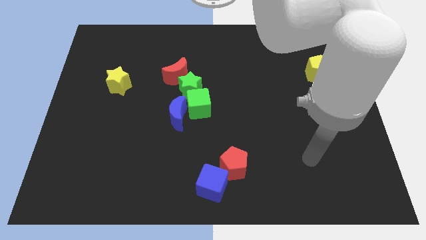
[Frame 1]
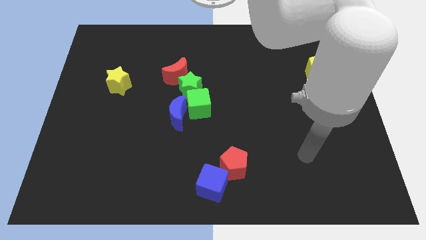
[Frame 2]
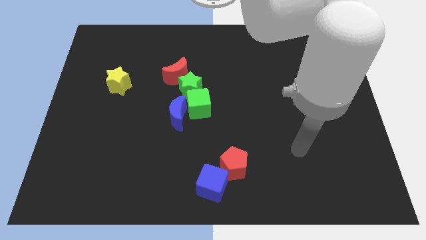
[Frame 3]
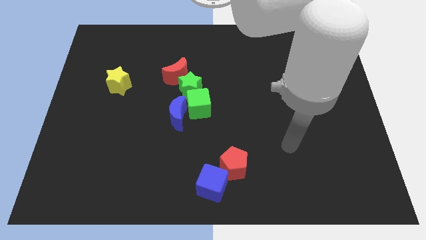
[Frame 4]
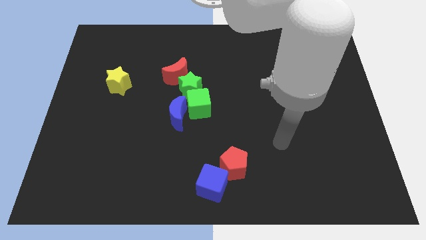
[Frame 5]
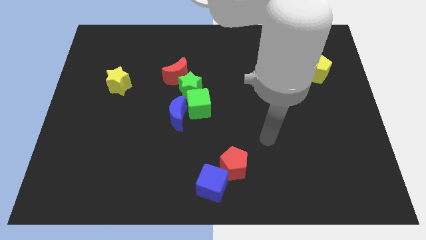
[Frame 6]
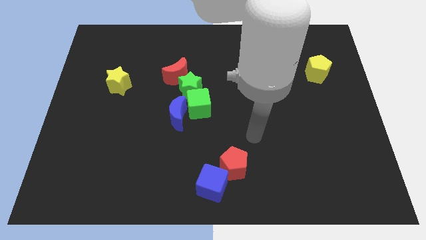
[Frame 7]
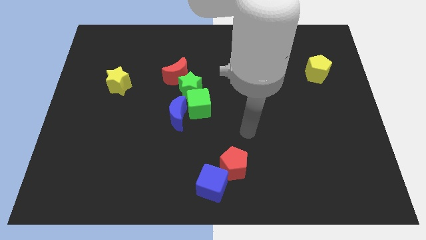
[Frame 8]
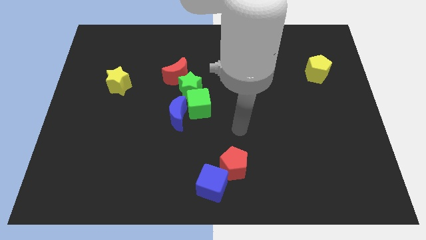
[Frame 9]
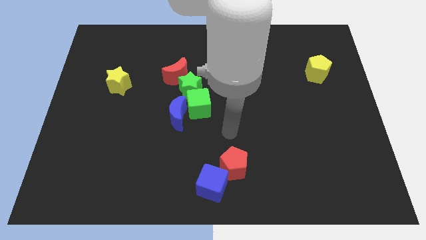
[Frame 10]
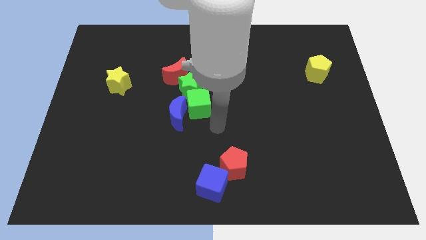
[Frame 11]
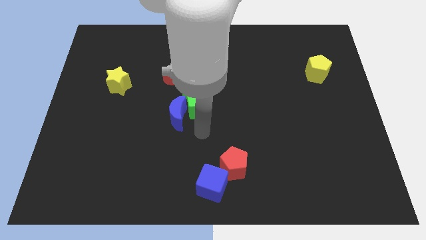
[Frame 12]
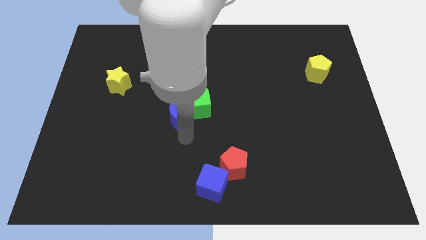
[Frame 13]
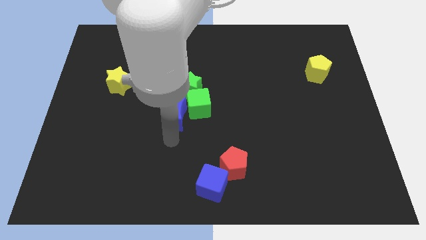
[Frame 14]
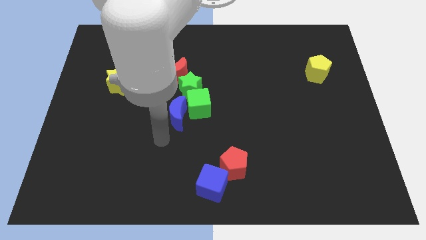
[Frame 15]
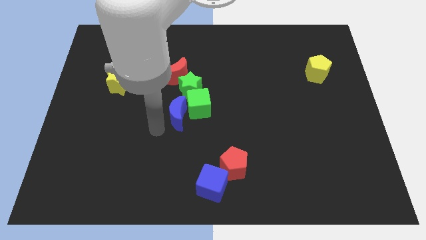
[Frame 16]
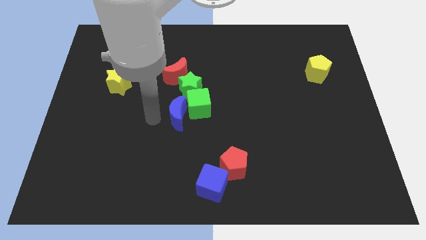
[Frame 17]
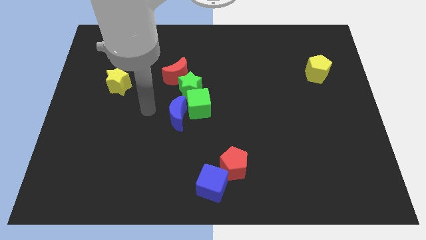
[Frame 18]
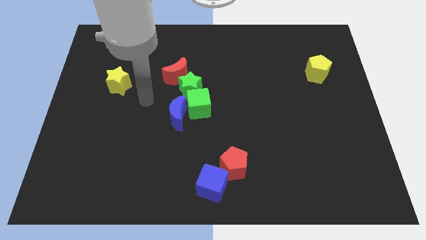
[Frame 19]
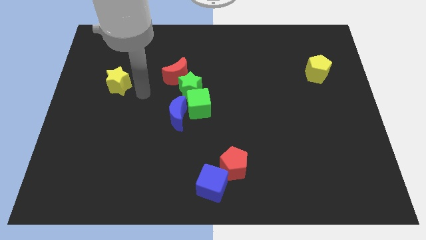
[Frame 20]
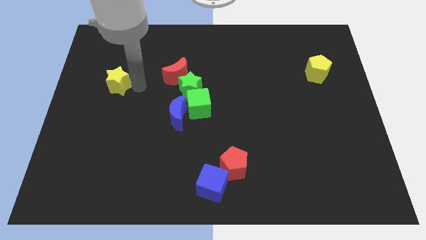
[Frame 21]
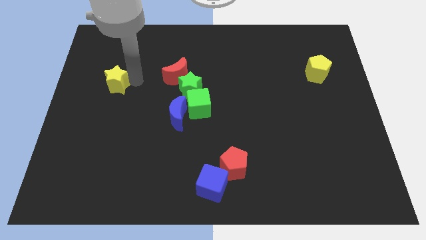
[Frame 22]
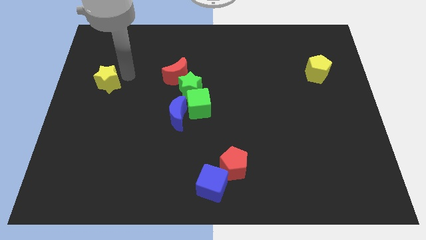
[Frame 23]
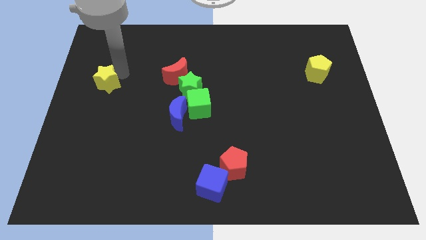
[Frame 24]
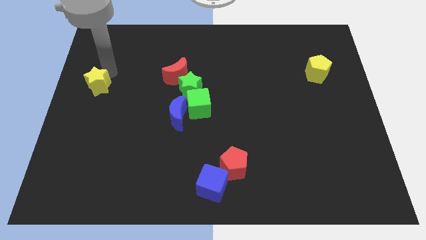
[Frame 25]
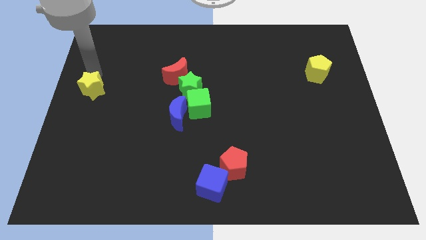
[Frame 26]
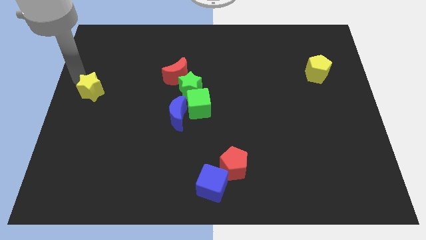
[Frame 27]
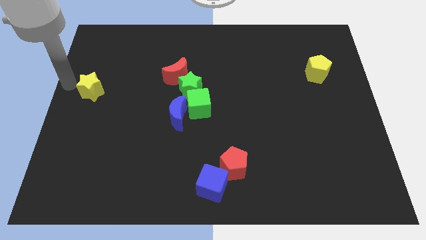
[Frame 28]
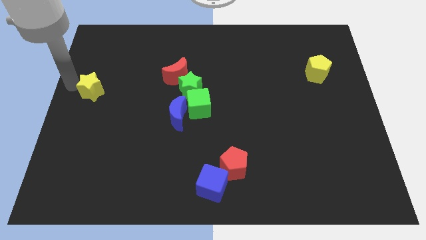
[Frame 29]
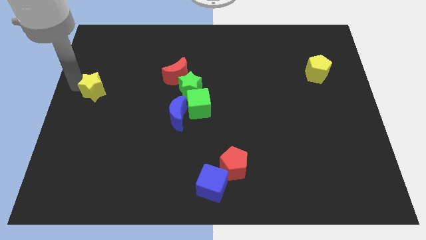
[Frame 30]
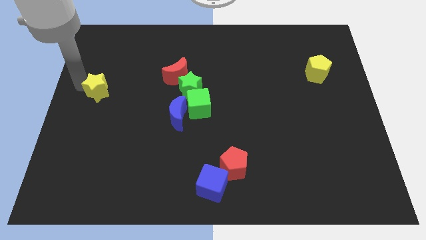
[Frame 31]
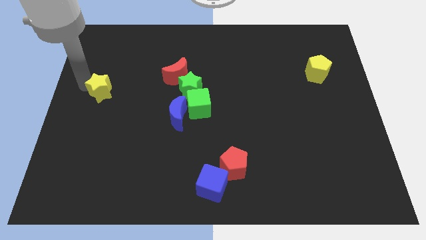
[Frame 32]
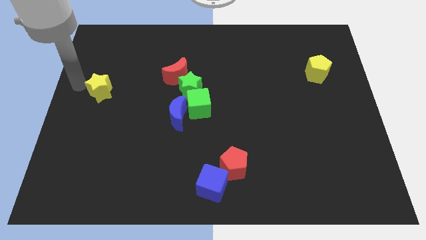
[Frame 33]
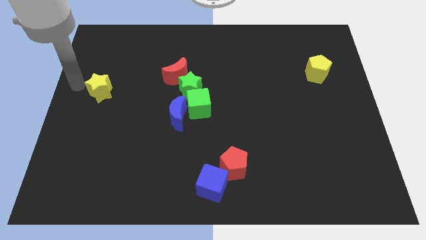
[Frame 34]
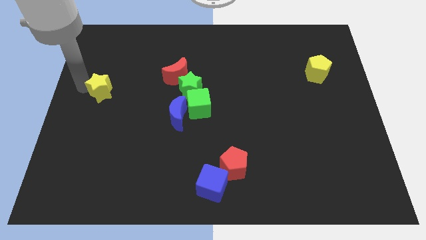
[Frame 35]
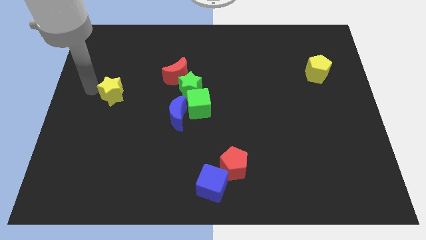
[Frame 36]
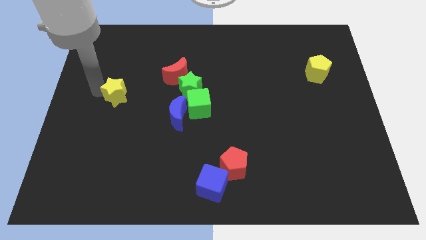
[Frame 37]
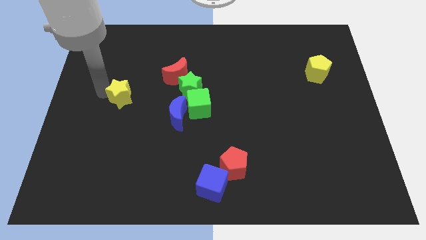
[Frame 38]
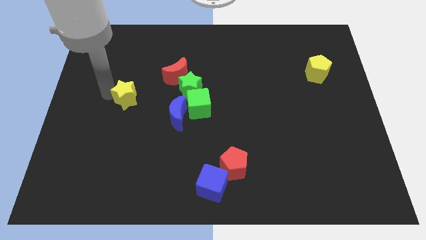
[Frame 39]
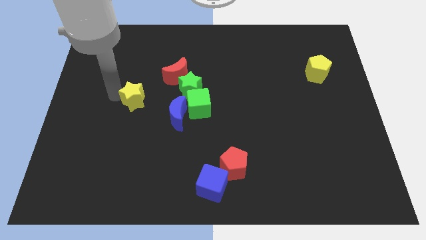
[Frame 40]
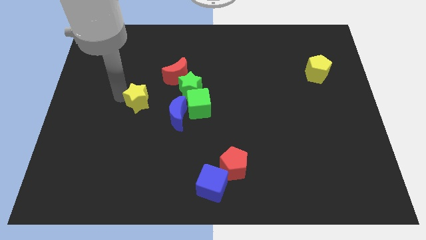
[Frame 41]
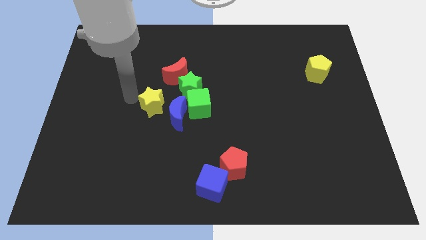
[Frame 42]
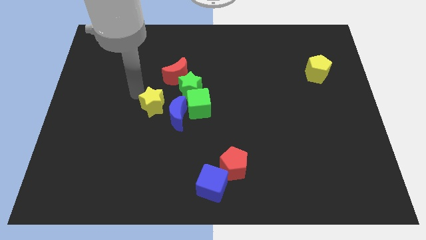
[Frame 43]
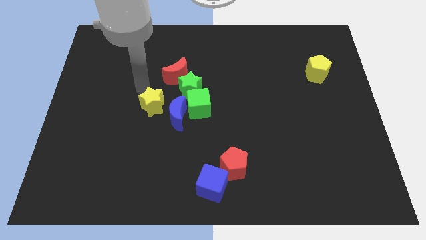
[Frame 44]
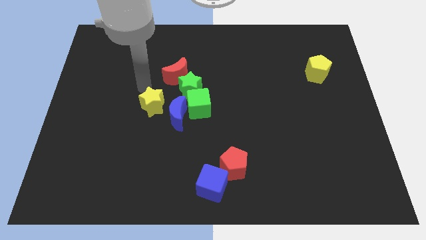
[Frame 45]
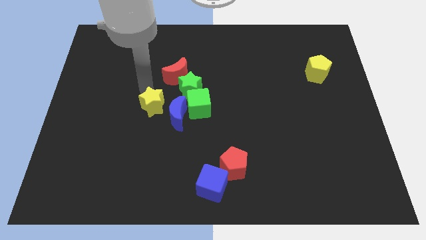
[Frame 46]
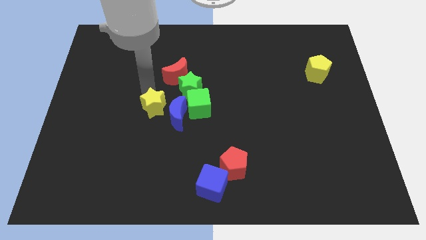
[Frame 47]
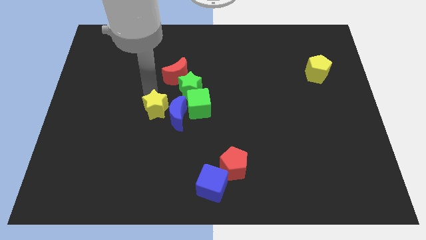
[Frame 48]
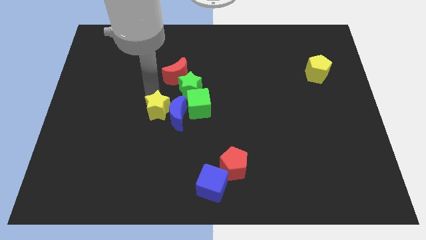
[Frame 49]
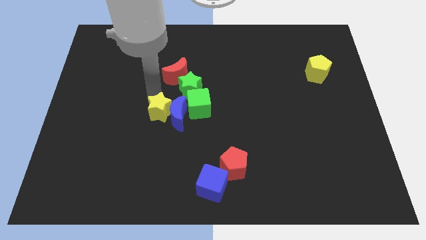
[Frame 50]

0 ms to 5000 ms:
push the yellow star to the middle

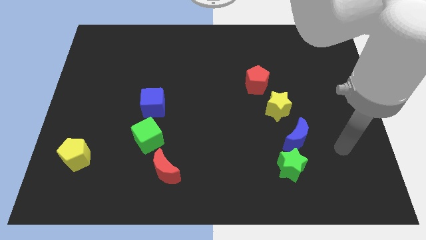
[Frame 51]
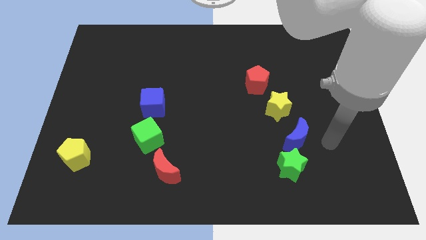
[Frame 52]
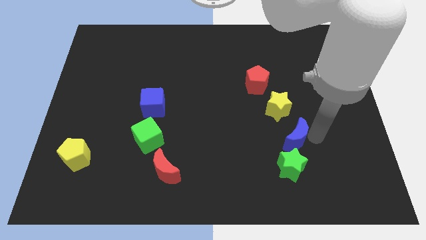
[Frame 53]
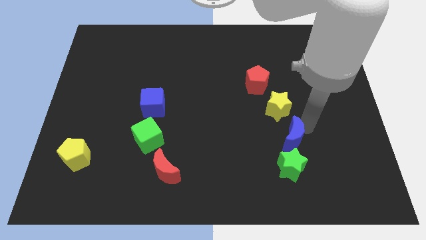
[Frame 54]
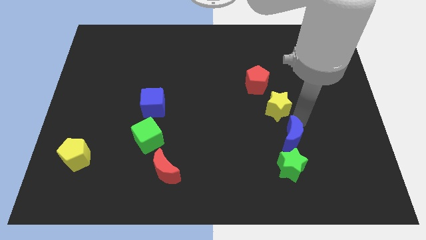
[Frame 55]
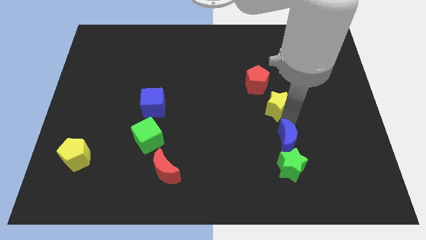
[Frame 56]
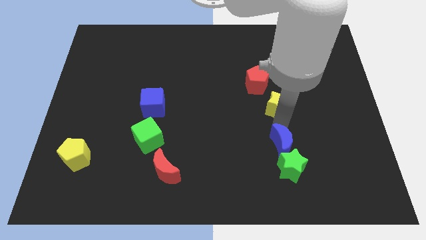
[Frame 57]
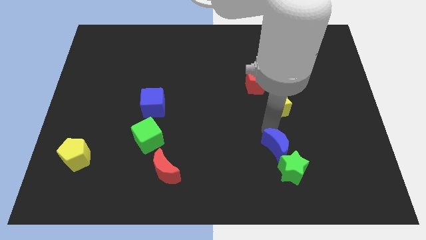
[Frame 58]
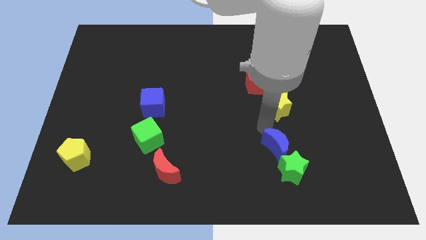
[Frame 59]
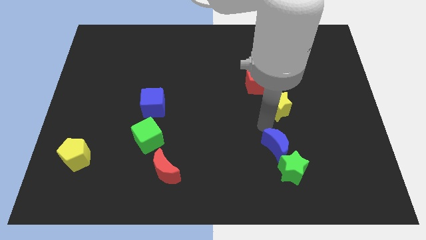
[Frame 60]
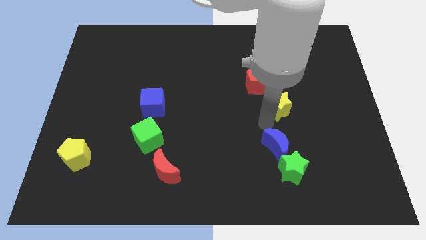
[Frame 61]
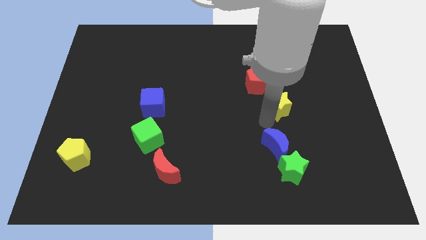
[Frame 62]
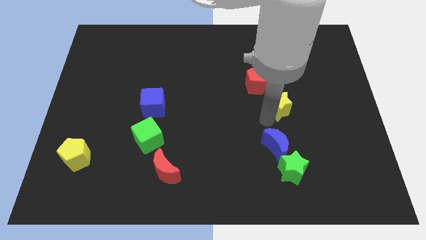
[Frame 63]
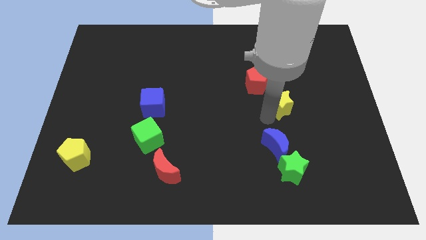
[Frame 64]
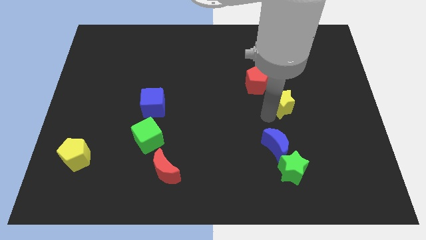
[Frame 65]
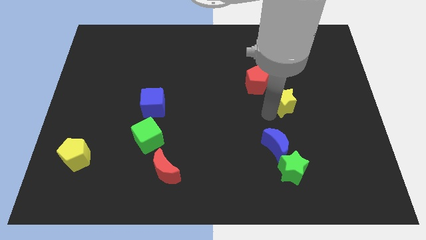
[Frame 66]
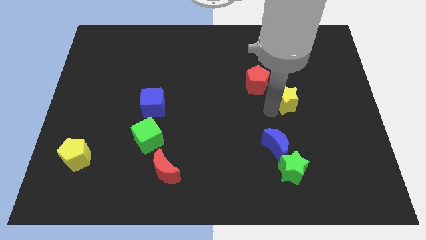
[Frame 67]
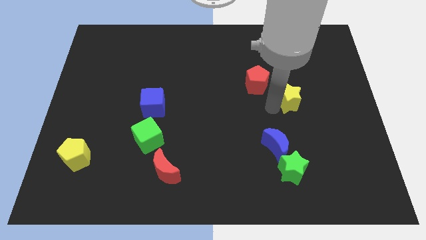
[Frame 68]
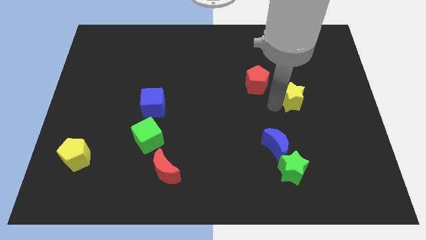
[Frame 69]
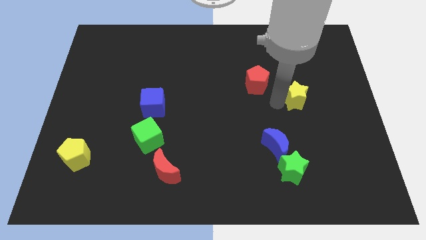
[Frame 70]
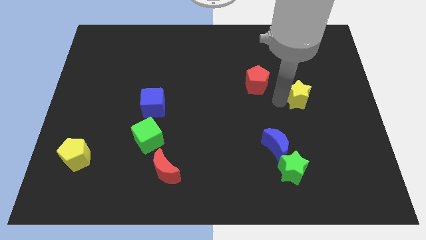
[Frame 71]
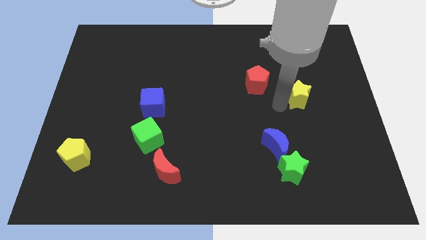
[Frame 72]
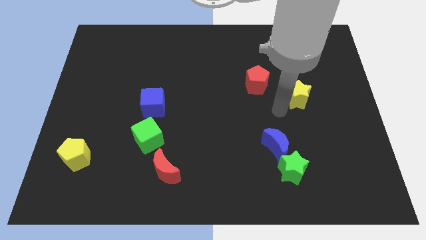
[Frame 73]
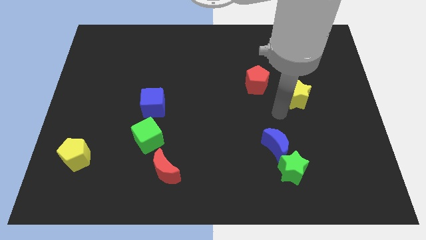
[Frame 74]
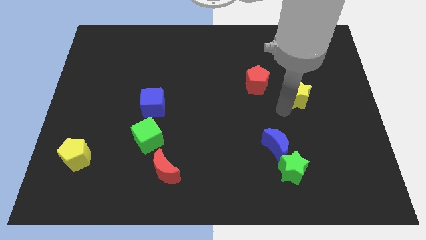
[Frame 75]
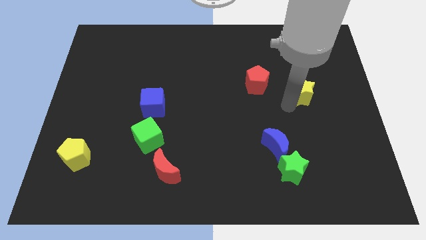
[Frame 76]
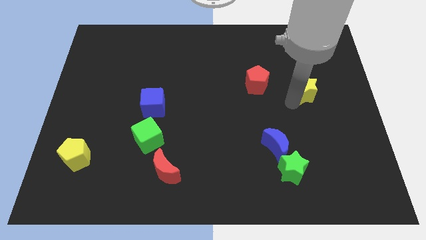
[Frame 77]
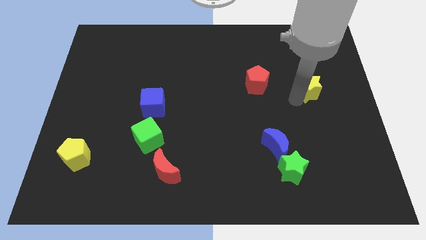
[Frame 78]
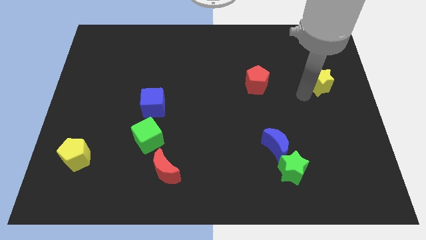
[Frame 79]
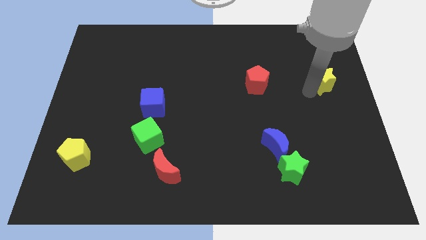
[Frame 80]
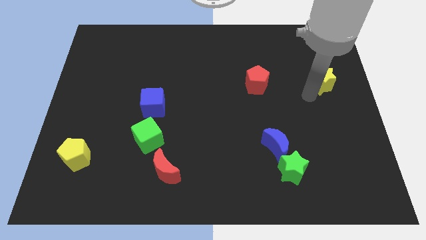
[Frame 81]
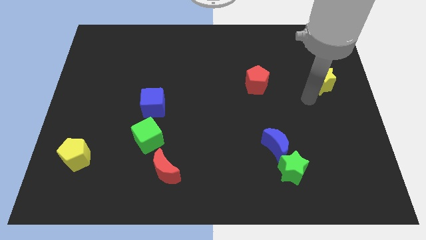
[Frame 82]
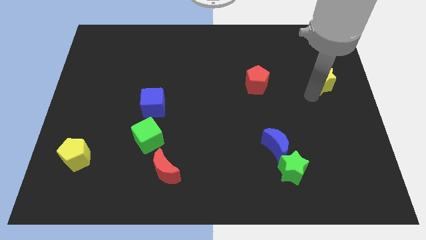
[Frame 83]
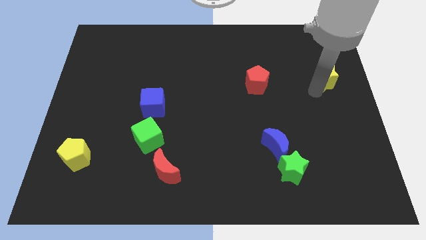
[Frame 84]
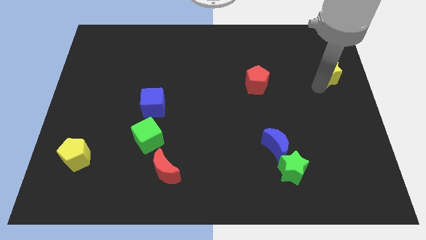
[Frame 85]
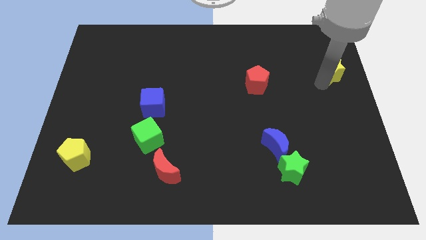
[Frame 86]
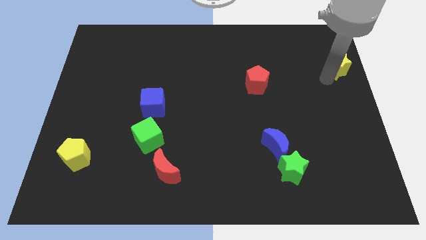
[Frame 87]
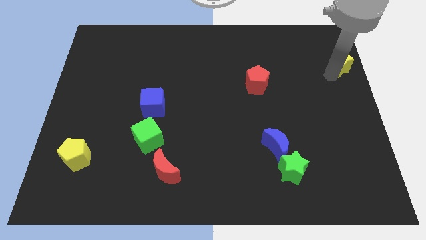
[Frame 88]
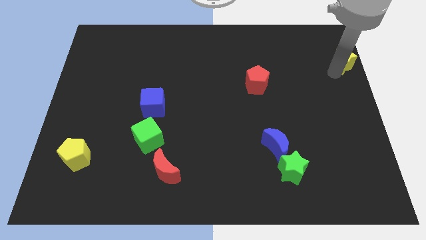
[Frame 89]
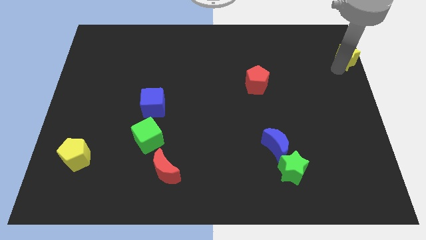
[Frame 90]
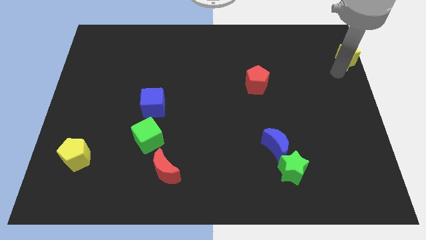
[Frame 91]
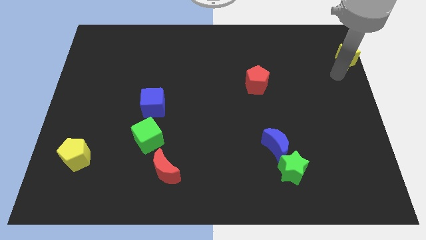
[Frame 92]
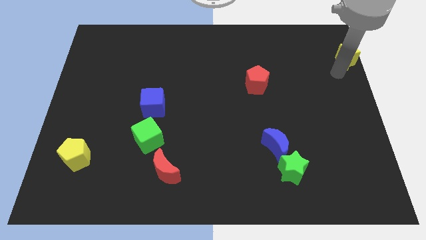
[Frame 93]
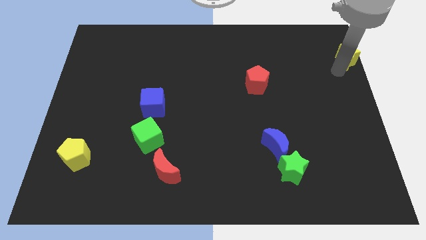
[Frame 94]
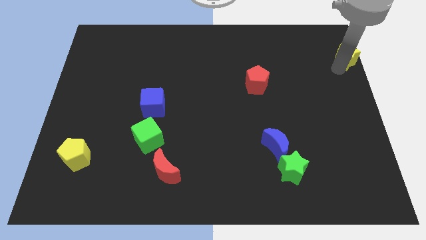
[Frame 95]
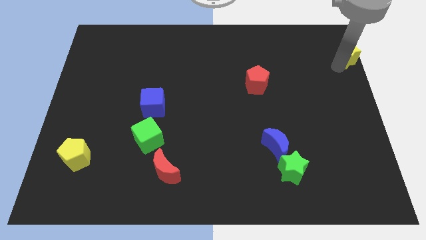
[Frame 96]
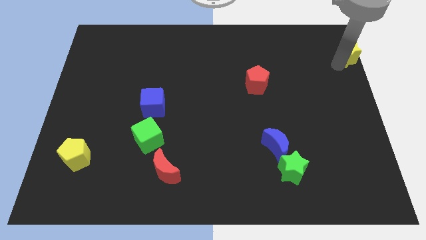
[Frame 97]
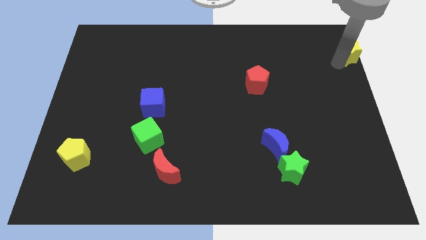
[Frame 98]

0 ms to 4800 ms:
put the yellow star to the top right
